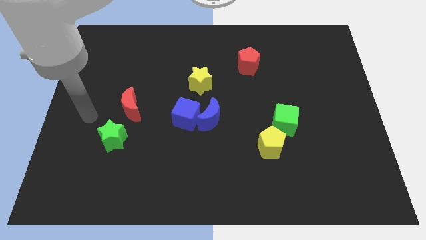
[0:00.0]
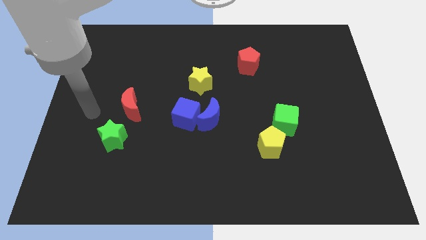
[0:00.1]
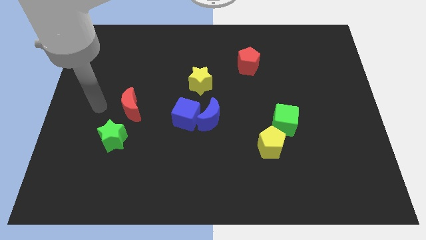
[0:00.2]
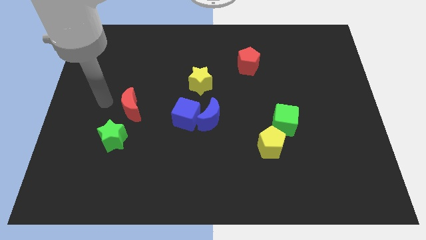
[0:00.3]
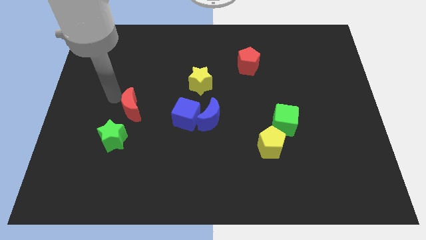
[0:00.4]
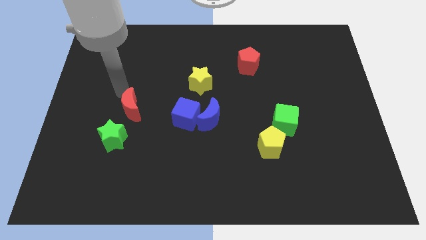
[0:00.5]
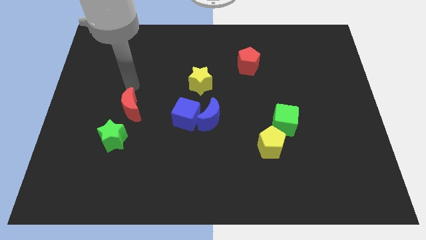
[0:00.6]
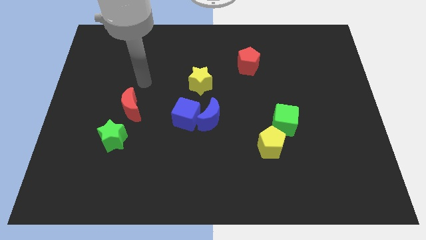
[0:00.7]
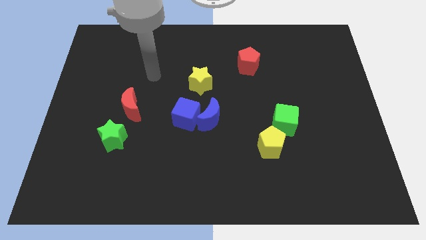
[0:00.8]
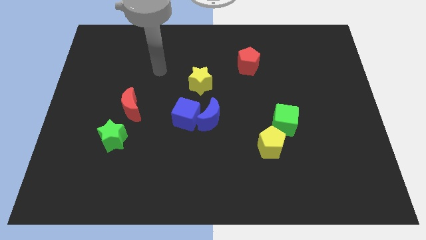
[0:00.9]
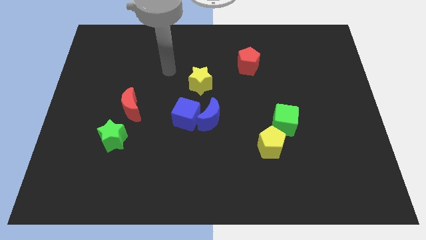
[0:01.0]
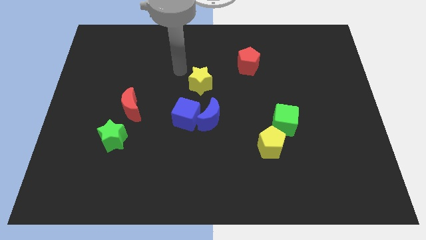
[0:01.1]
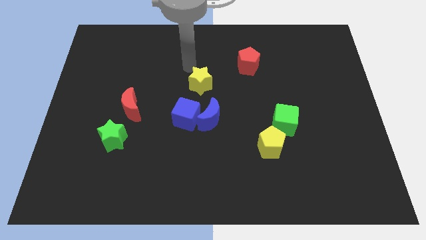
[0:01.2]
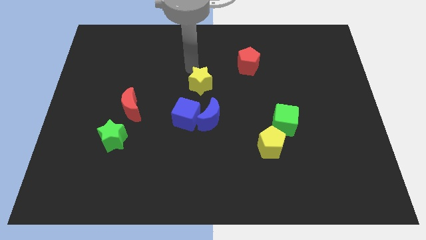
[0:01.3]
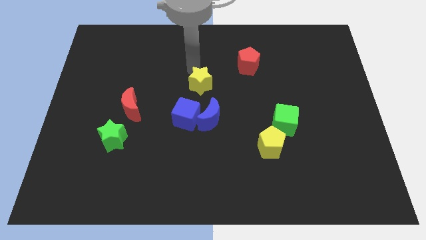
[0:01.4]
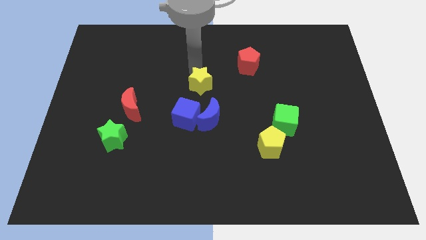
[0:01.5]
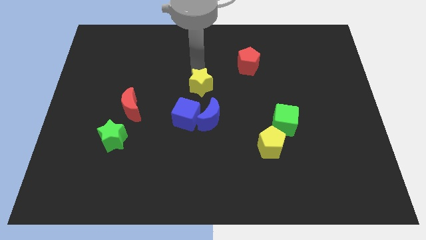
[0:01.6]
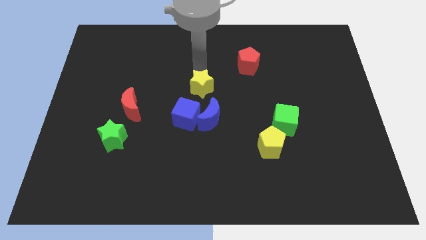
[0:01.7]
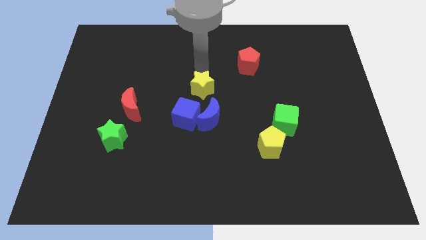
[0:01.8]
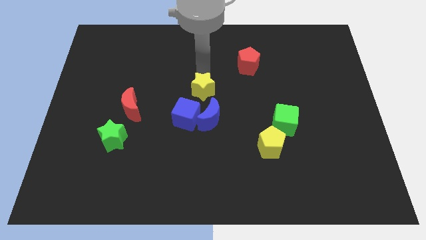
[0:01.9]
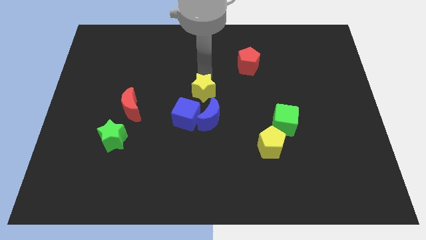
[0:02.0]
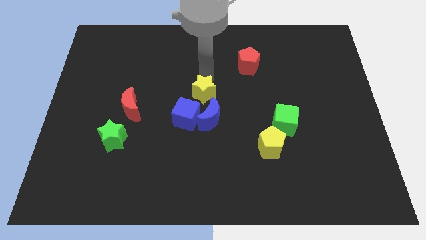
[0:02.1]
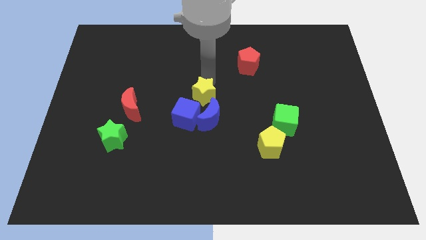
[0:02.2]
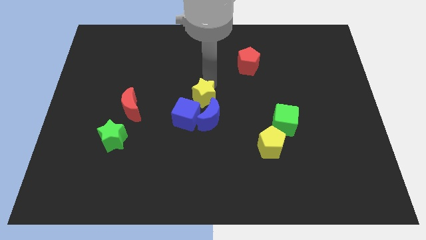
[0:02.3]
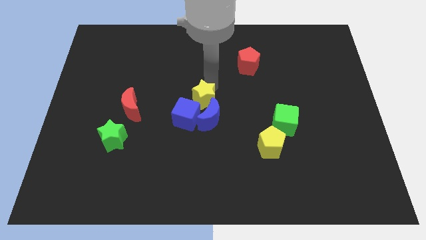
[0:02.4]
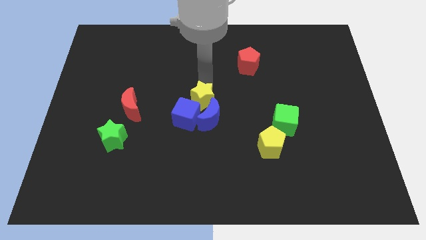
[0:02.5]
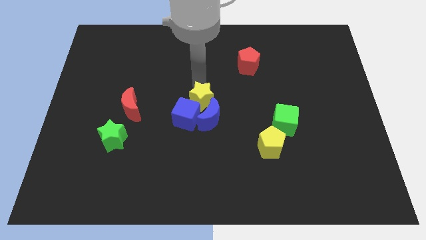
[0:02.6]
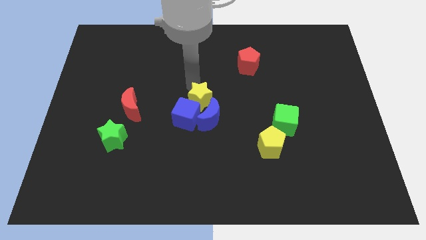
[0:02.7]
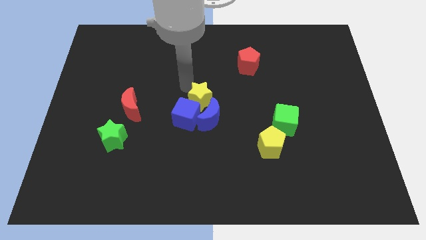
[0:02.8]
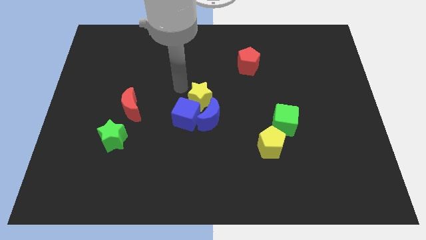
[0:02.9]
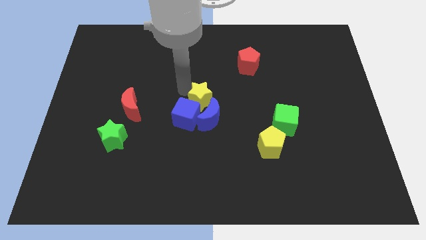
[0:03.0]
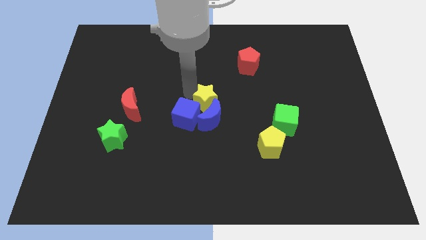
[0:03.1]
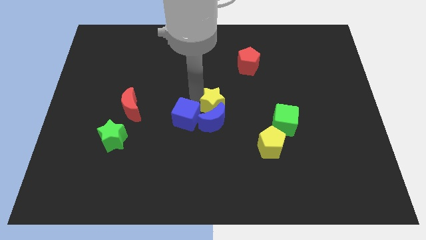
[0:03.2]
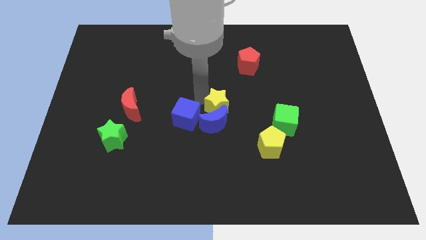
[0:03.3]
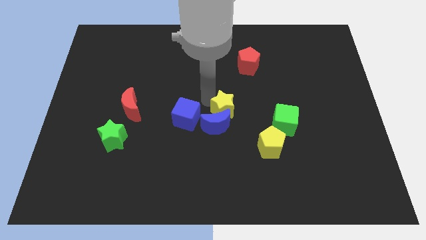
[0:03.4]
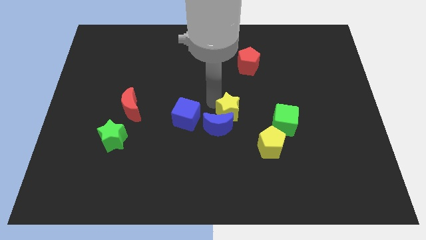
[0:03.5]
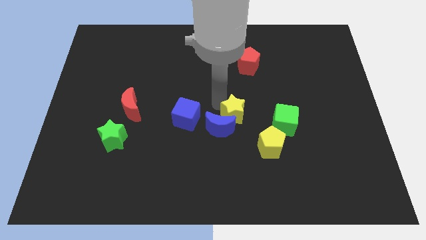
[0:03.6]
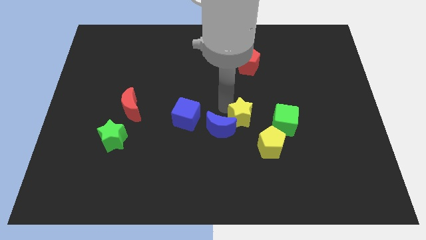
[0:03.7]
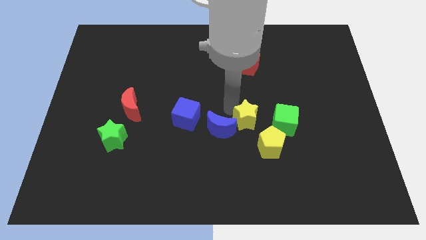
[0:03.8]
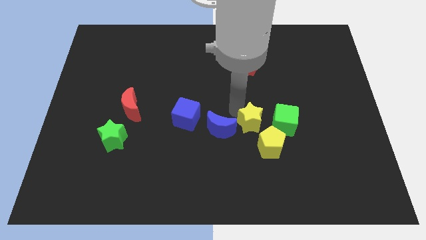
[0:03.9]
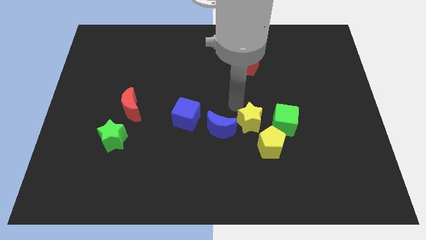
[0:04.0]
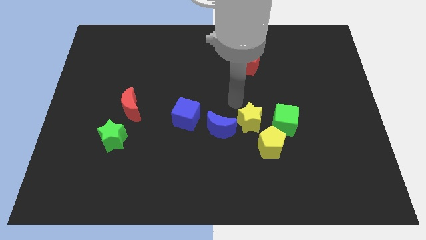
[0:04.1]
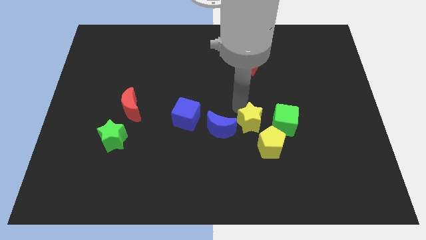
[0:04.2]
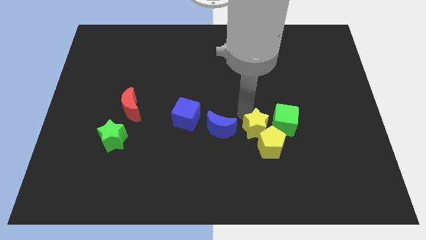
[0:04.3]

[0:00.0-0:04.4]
put the yellow star to the yellow pentagon

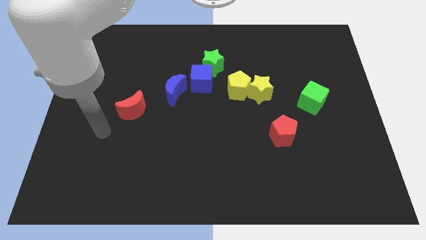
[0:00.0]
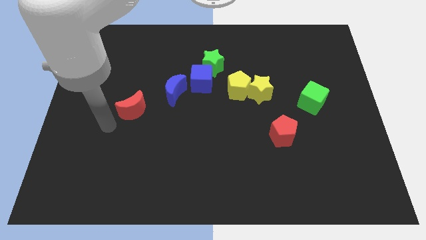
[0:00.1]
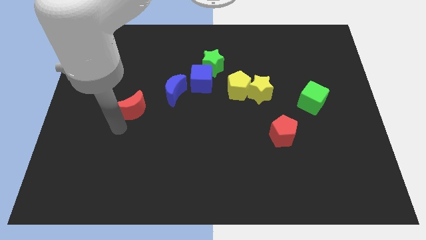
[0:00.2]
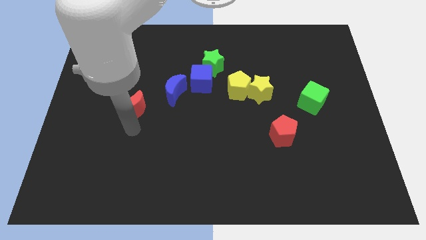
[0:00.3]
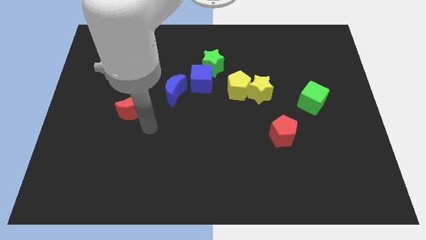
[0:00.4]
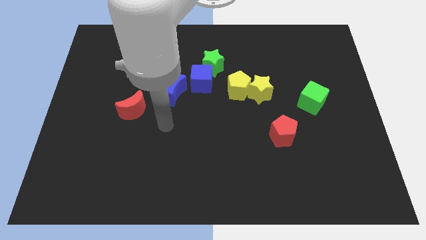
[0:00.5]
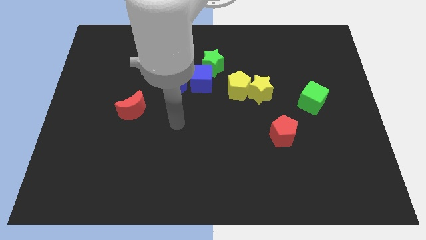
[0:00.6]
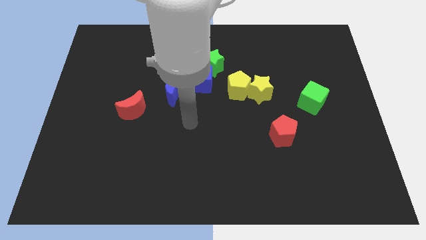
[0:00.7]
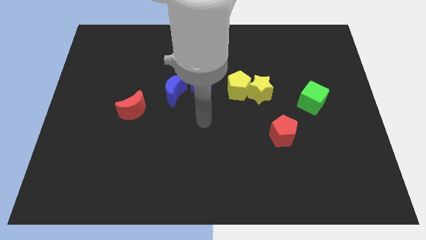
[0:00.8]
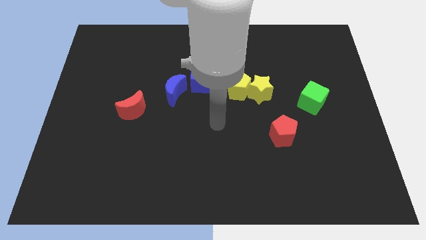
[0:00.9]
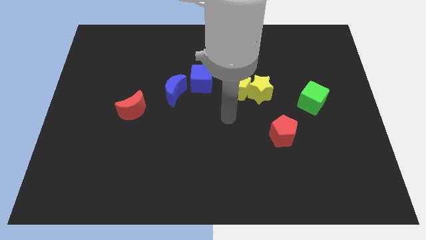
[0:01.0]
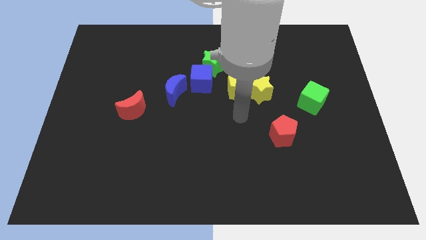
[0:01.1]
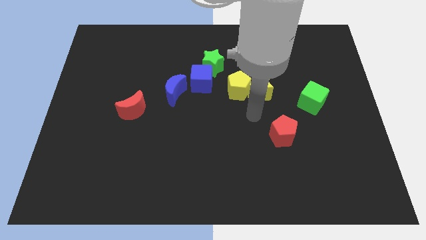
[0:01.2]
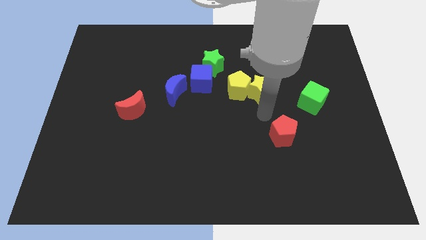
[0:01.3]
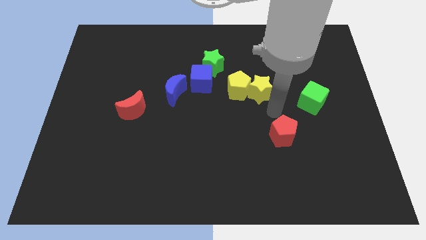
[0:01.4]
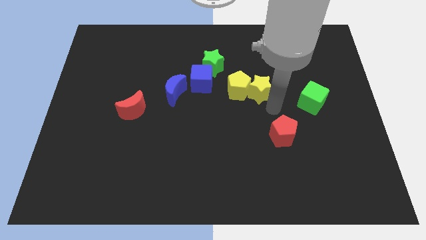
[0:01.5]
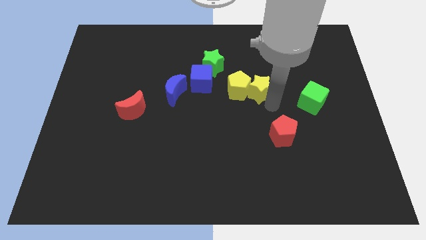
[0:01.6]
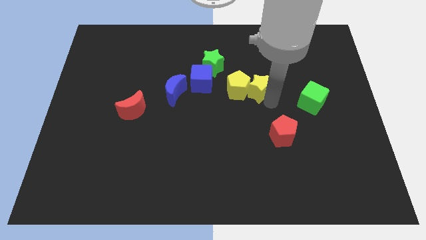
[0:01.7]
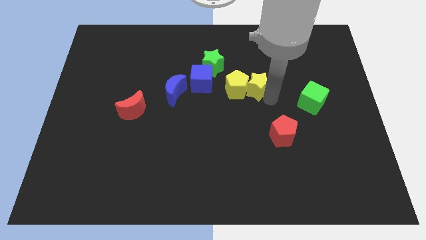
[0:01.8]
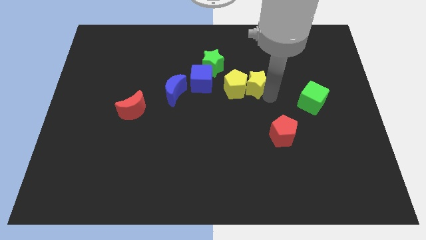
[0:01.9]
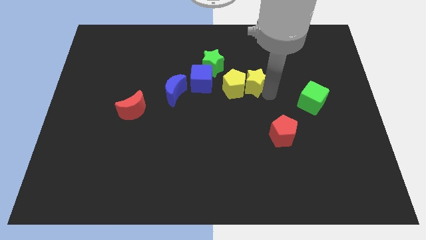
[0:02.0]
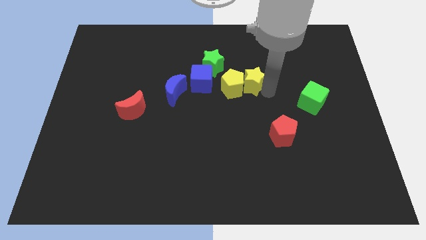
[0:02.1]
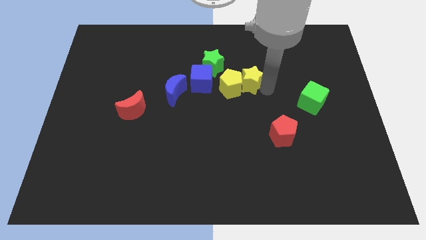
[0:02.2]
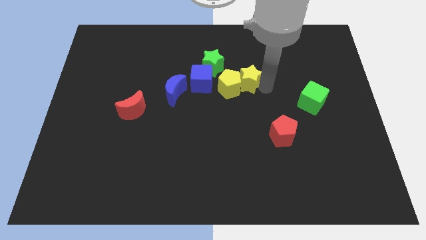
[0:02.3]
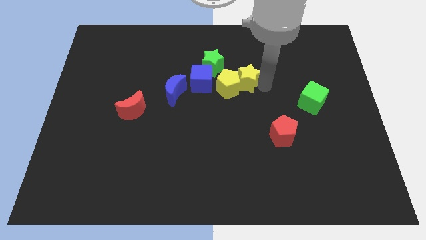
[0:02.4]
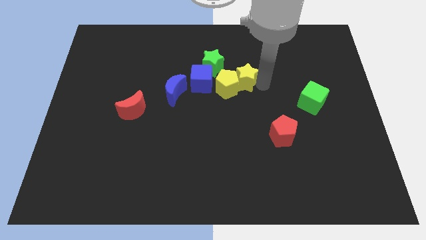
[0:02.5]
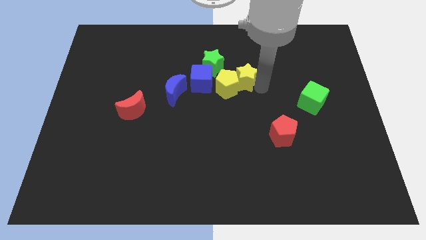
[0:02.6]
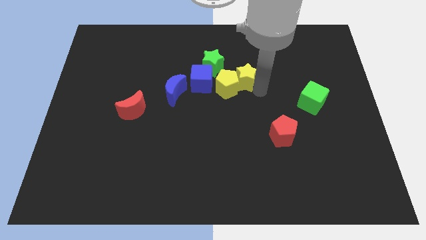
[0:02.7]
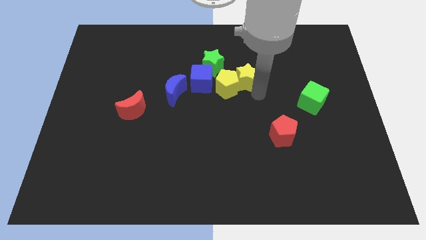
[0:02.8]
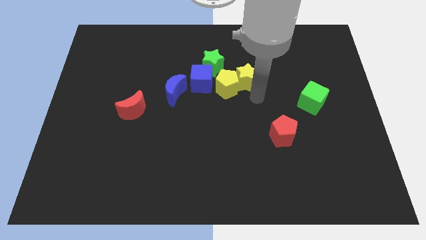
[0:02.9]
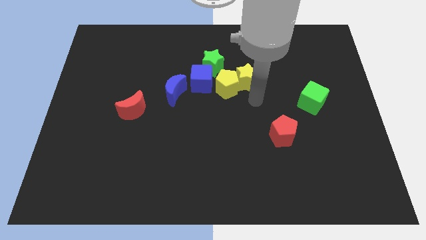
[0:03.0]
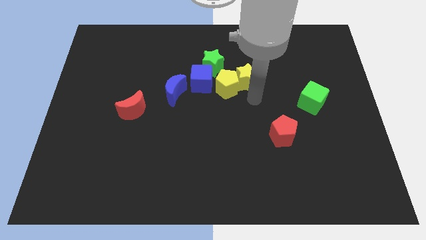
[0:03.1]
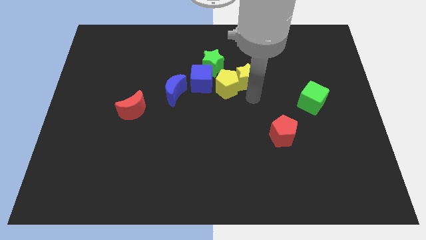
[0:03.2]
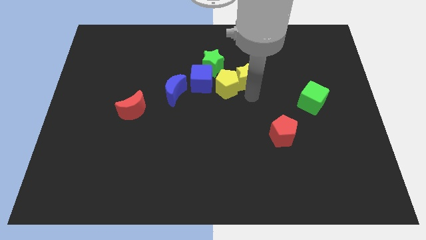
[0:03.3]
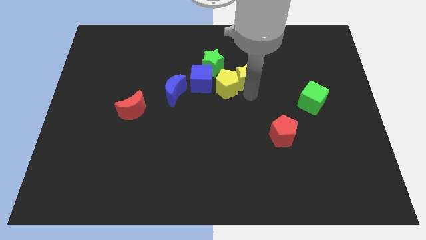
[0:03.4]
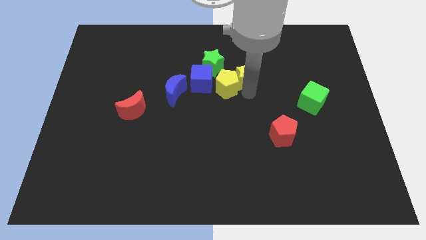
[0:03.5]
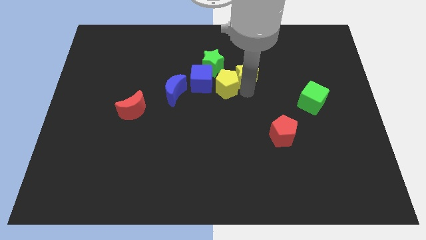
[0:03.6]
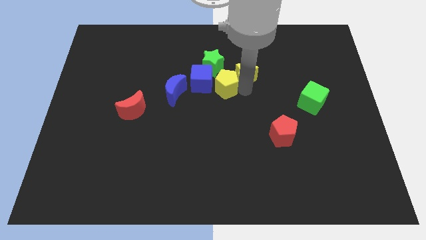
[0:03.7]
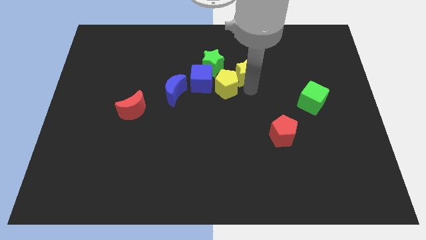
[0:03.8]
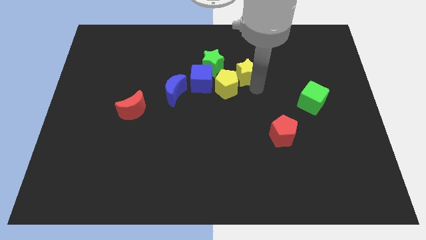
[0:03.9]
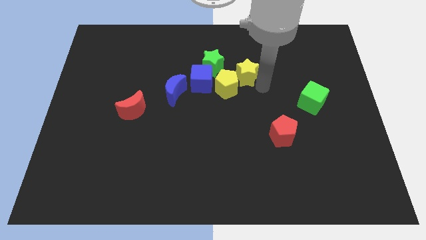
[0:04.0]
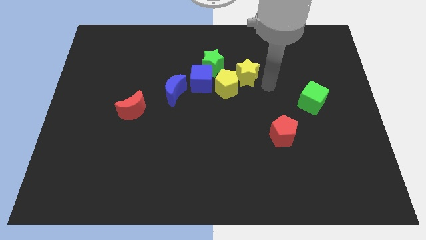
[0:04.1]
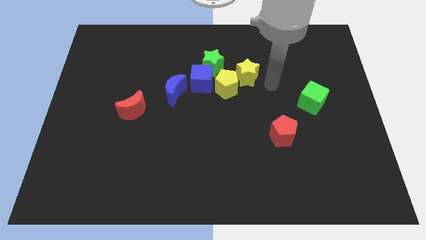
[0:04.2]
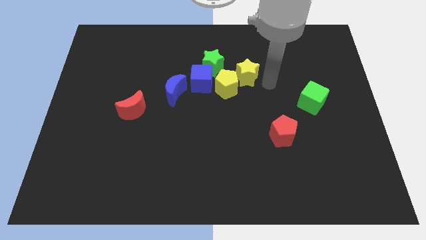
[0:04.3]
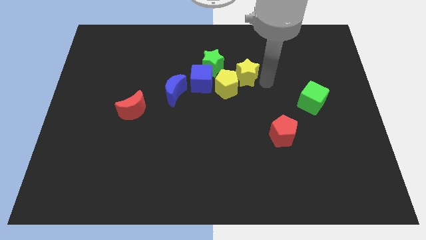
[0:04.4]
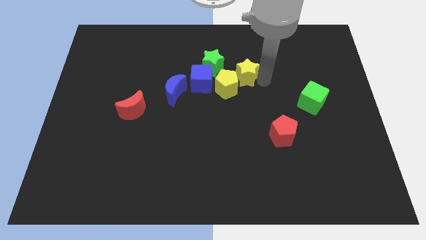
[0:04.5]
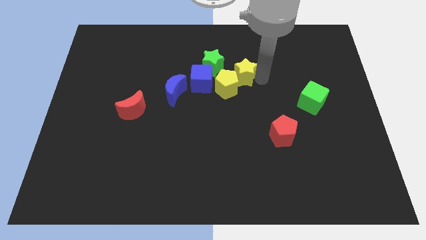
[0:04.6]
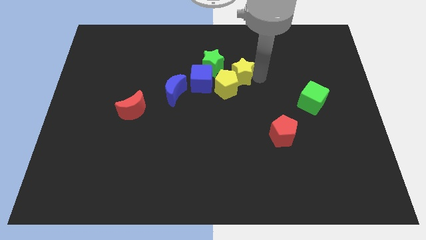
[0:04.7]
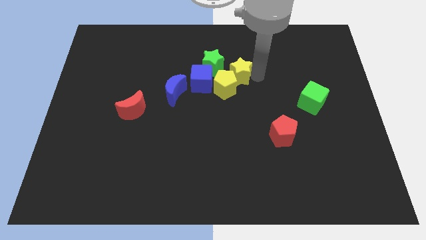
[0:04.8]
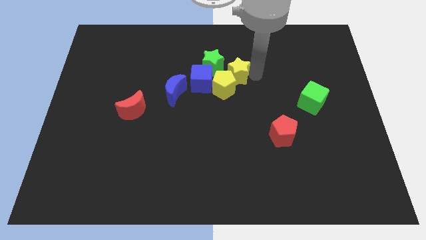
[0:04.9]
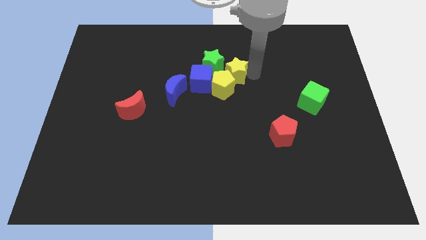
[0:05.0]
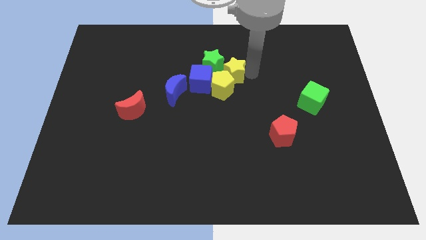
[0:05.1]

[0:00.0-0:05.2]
slide the yellow star close to the green star
